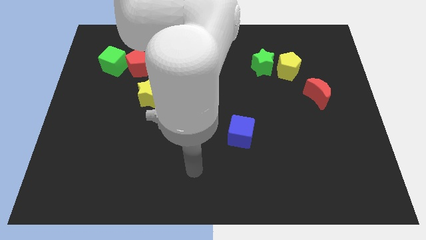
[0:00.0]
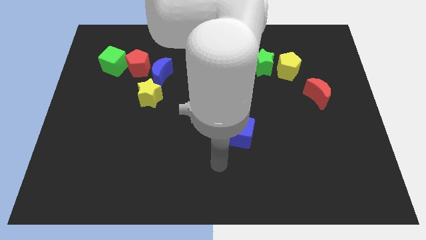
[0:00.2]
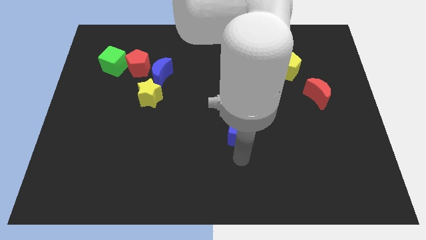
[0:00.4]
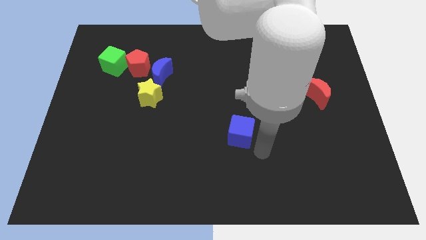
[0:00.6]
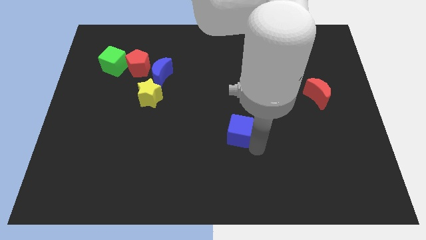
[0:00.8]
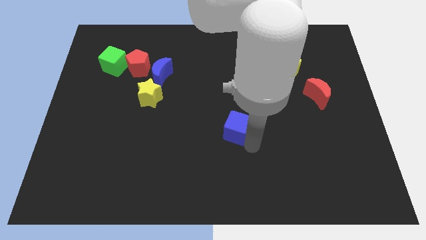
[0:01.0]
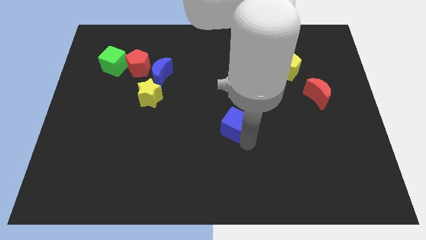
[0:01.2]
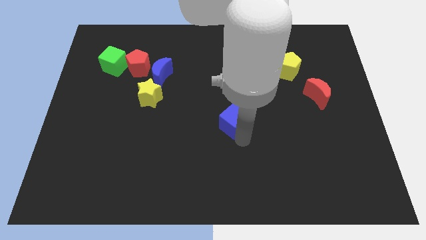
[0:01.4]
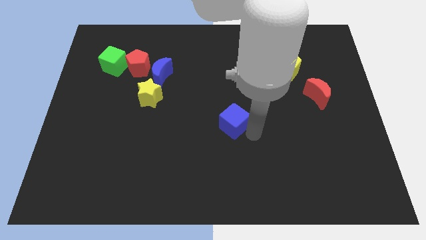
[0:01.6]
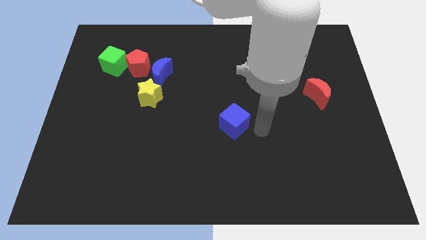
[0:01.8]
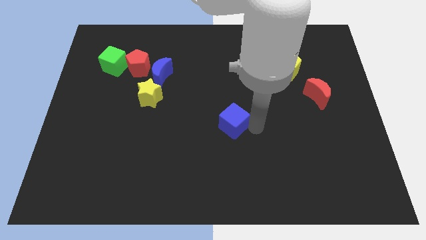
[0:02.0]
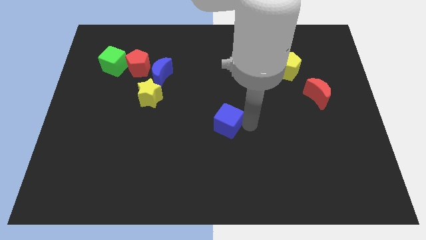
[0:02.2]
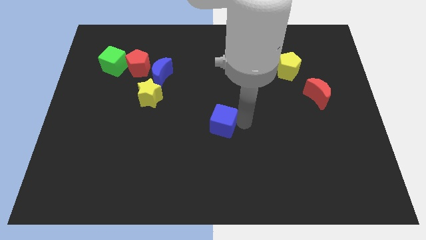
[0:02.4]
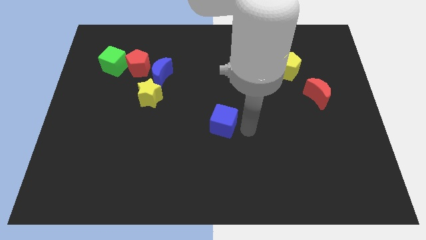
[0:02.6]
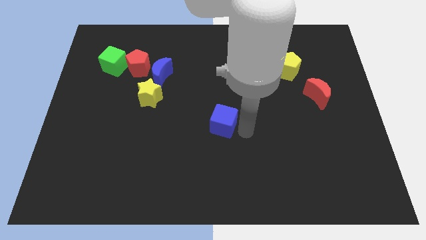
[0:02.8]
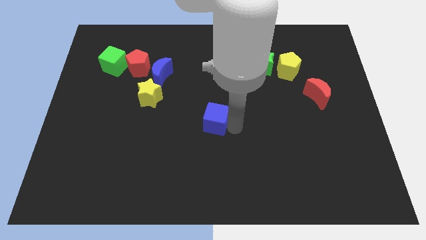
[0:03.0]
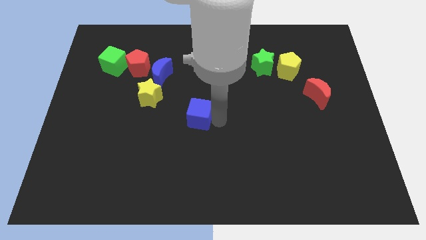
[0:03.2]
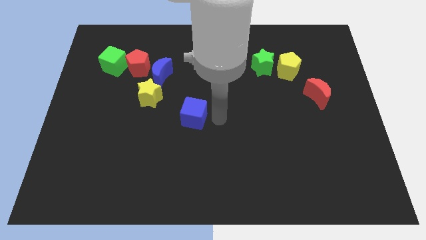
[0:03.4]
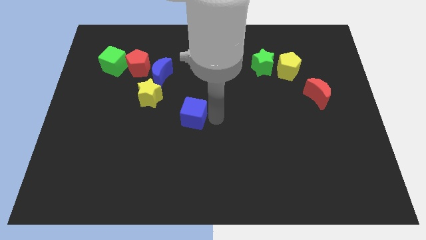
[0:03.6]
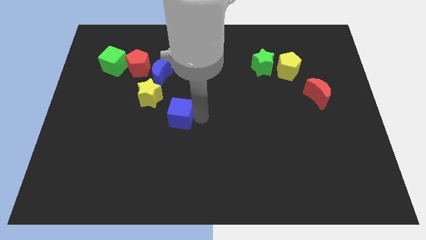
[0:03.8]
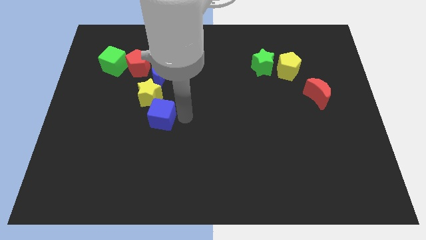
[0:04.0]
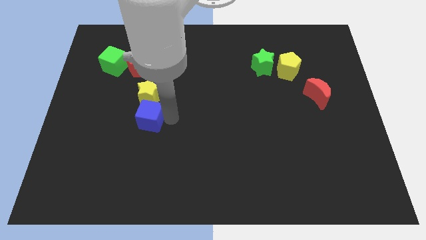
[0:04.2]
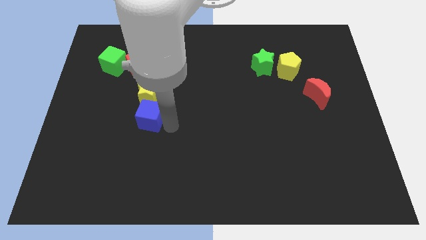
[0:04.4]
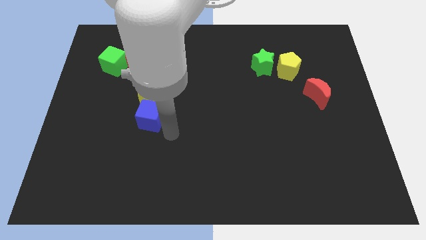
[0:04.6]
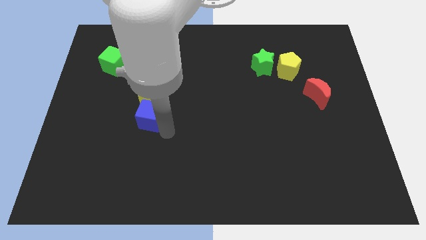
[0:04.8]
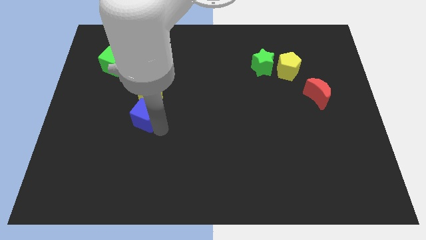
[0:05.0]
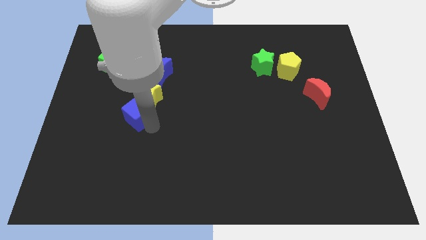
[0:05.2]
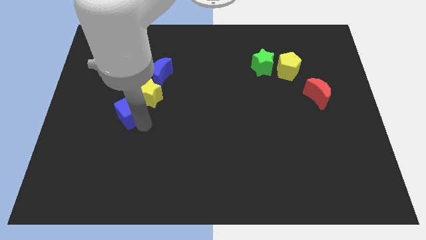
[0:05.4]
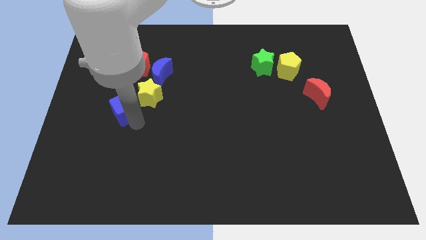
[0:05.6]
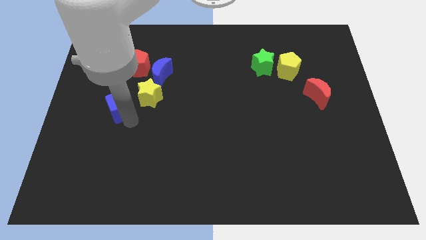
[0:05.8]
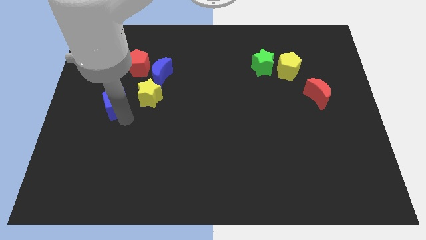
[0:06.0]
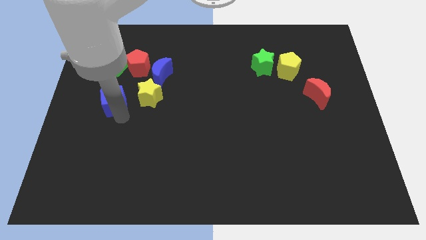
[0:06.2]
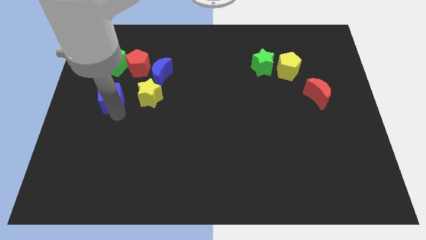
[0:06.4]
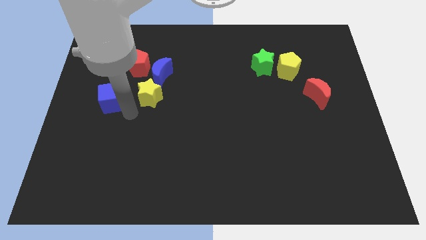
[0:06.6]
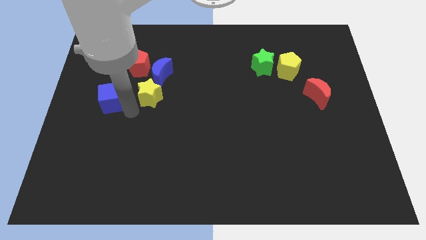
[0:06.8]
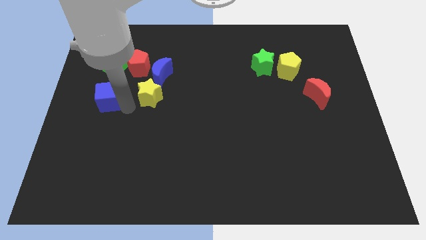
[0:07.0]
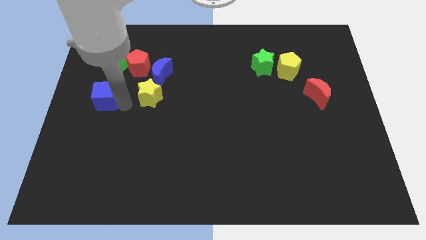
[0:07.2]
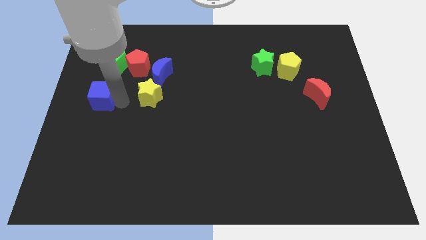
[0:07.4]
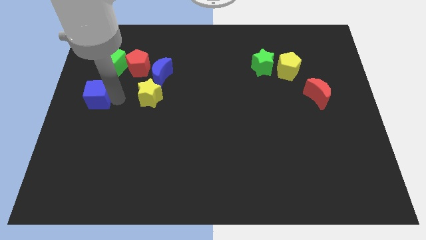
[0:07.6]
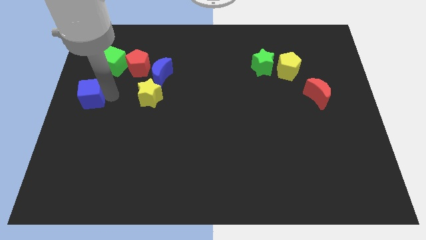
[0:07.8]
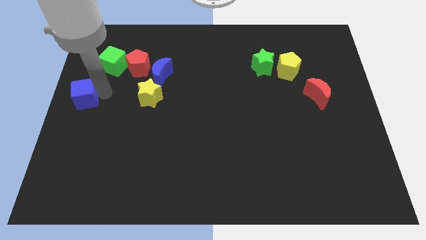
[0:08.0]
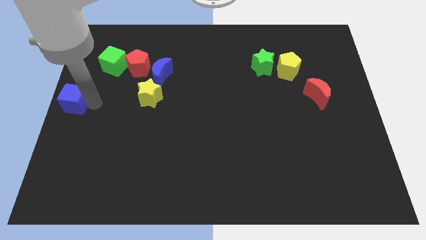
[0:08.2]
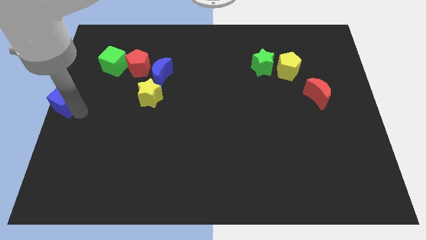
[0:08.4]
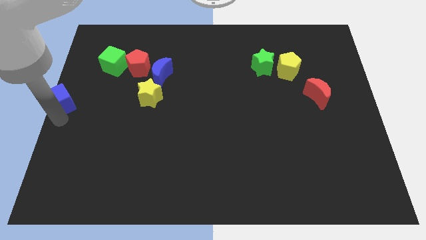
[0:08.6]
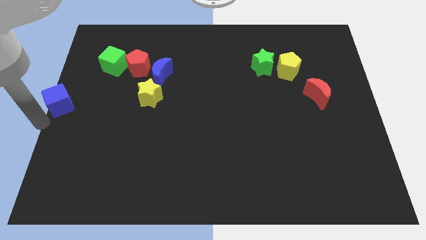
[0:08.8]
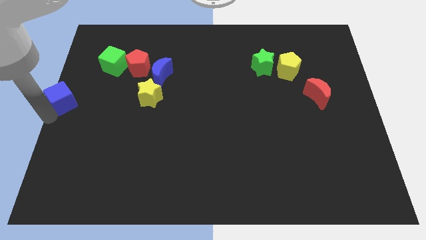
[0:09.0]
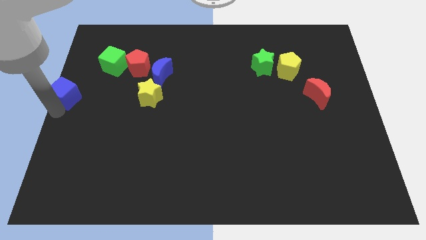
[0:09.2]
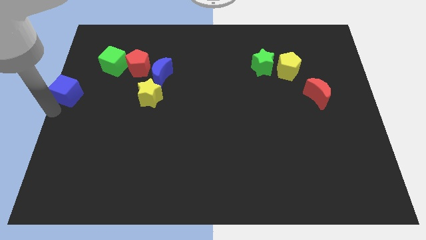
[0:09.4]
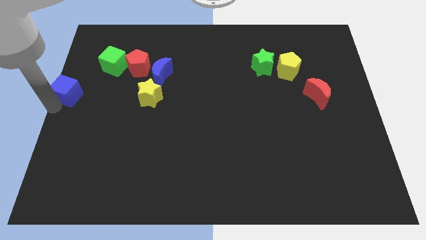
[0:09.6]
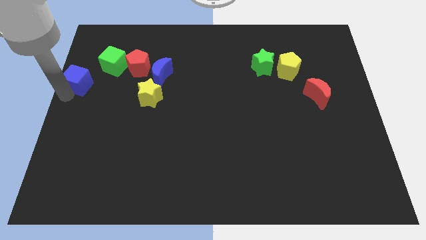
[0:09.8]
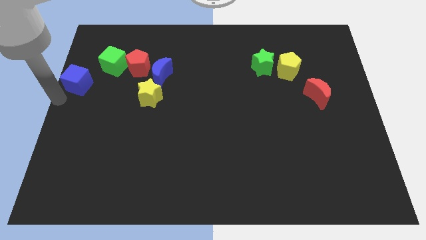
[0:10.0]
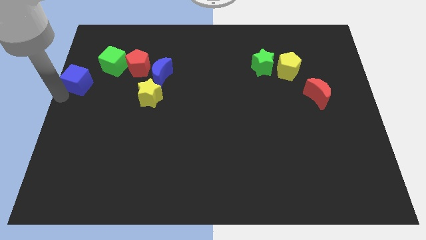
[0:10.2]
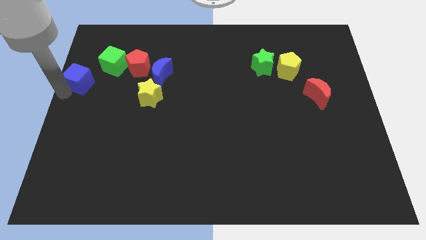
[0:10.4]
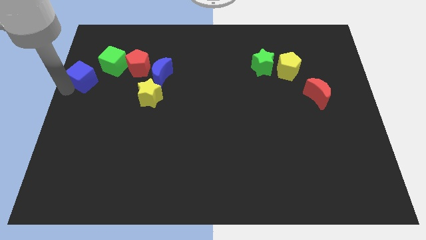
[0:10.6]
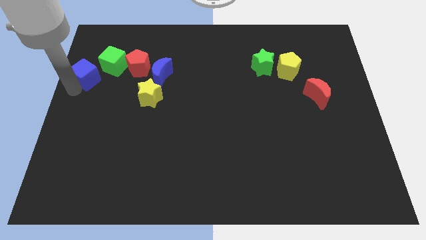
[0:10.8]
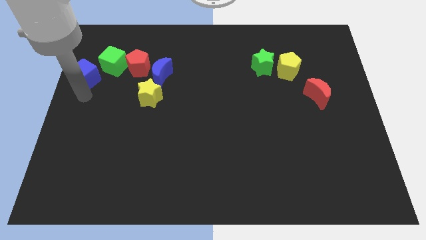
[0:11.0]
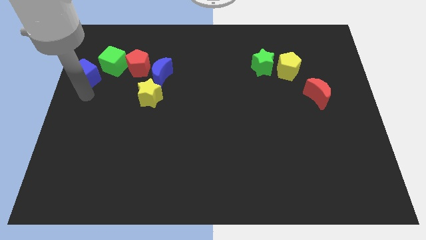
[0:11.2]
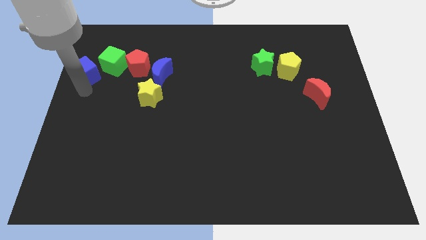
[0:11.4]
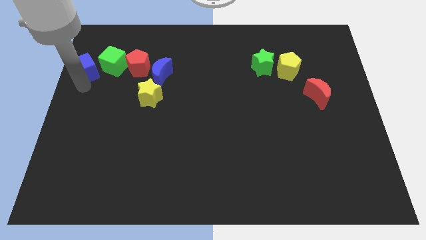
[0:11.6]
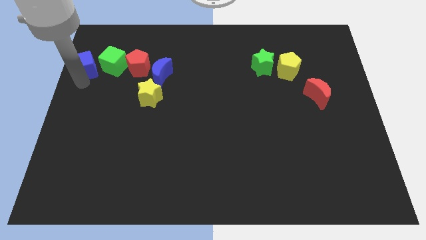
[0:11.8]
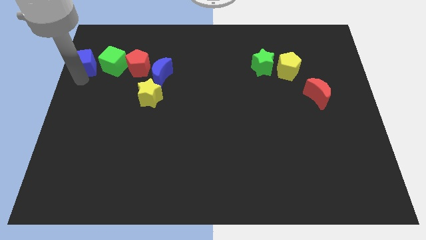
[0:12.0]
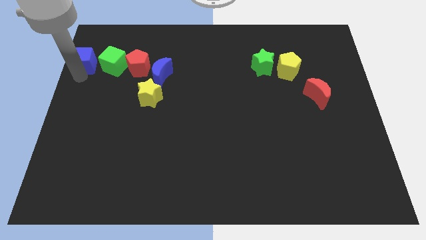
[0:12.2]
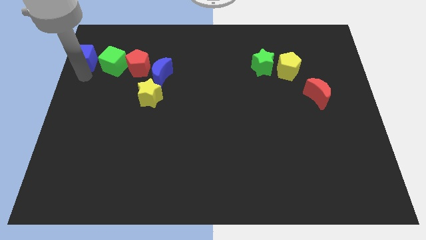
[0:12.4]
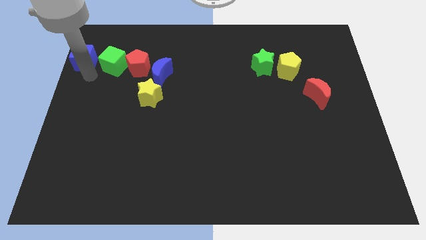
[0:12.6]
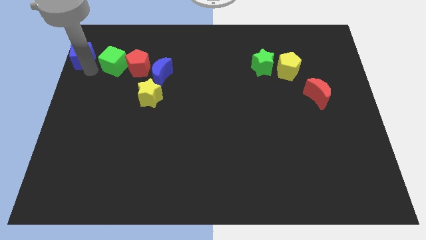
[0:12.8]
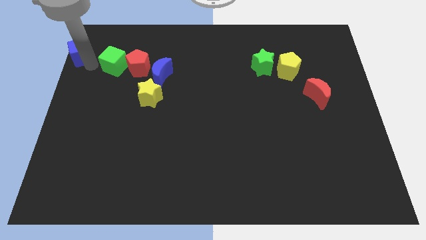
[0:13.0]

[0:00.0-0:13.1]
slide the blue cube to the top left corner

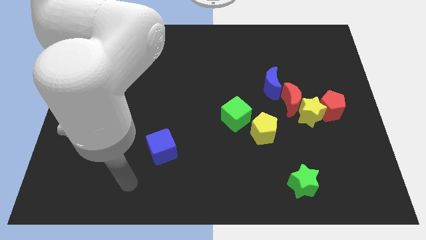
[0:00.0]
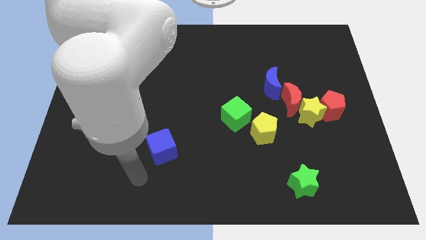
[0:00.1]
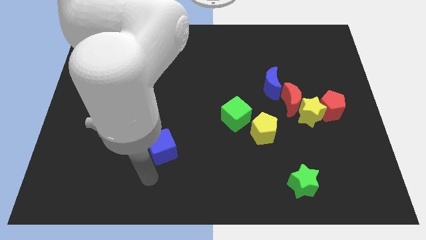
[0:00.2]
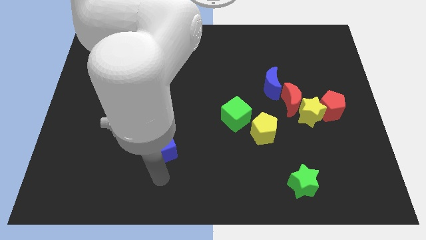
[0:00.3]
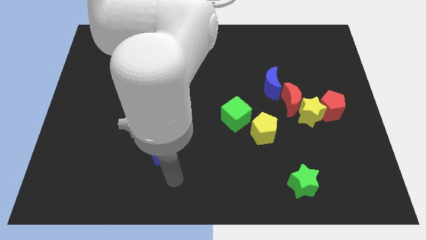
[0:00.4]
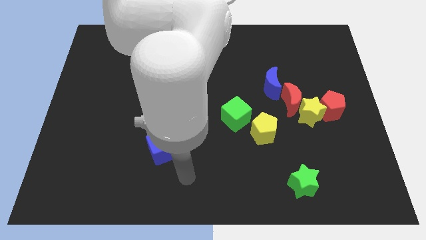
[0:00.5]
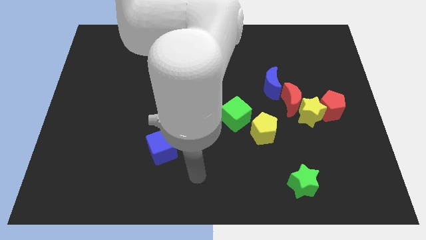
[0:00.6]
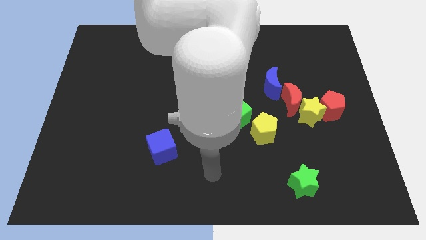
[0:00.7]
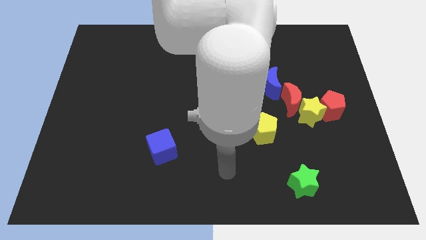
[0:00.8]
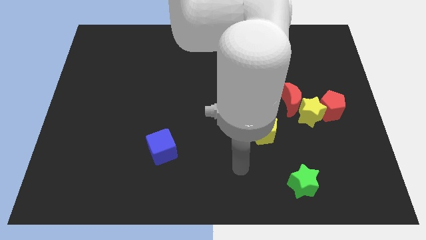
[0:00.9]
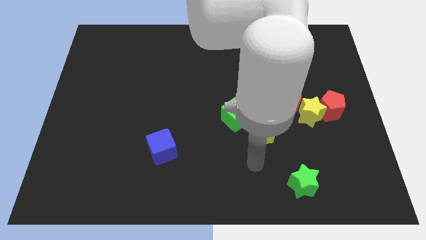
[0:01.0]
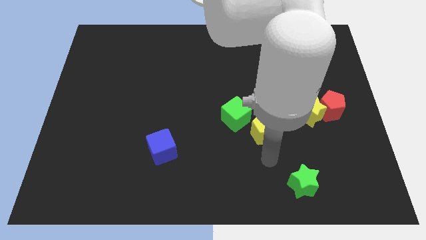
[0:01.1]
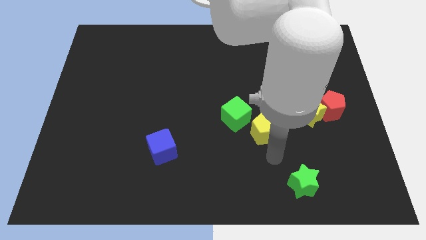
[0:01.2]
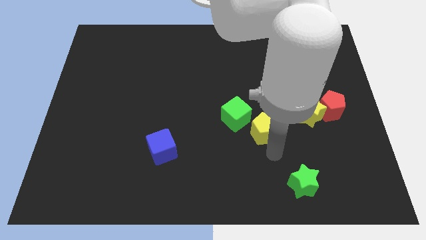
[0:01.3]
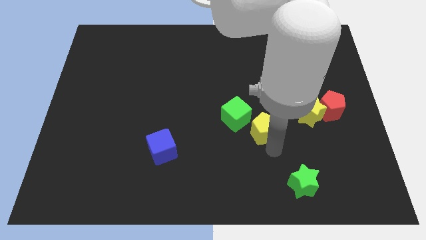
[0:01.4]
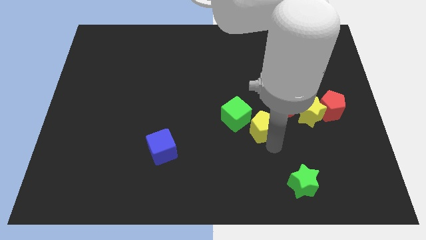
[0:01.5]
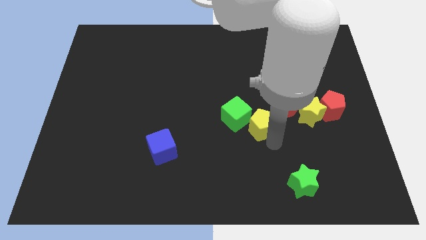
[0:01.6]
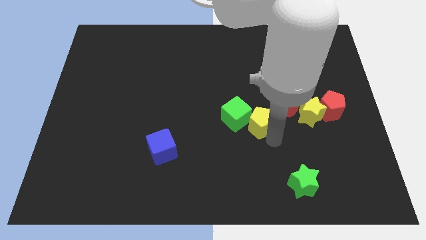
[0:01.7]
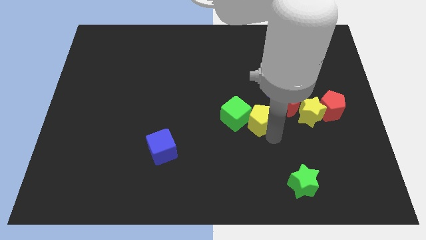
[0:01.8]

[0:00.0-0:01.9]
push the yellow pentagon to the center of the board
